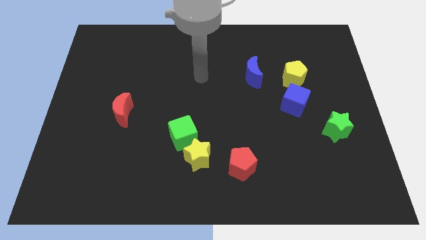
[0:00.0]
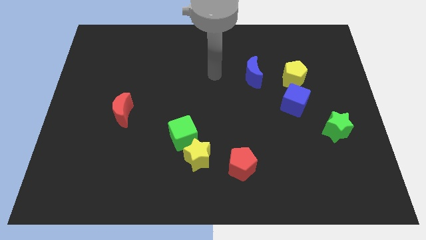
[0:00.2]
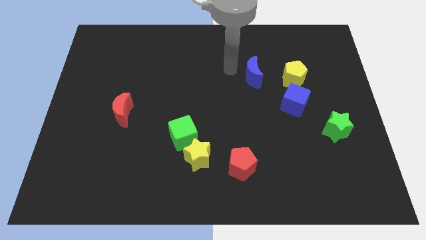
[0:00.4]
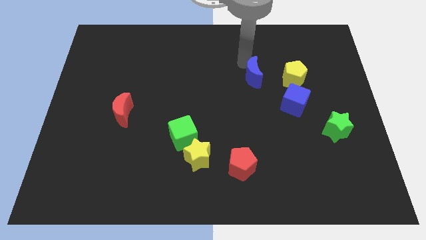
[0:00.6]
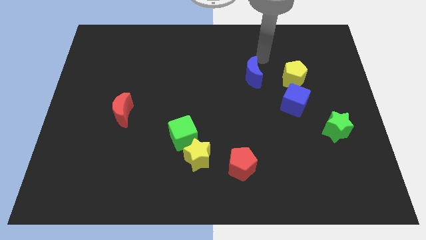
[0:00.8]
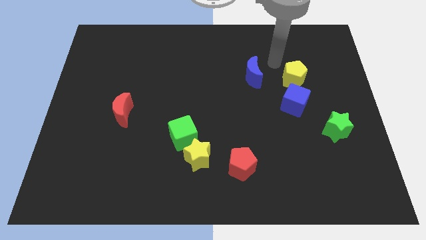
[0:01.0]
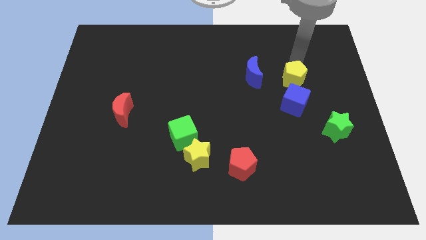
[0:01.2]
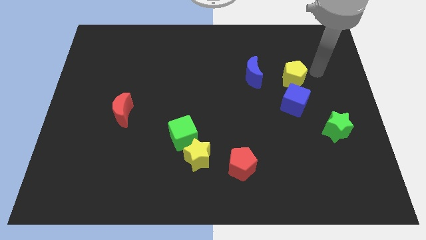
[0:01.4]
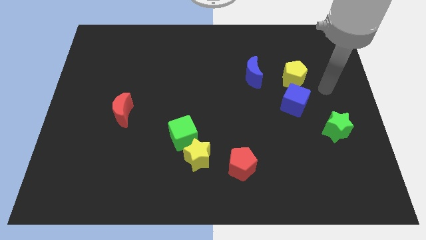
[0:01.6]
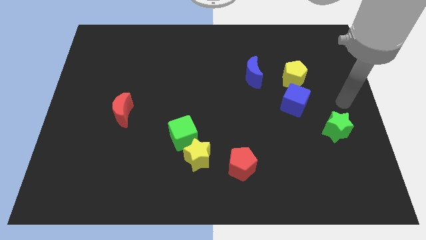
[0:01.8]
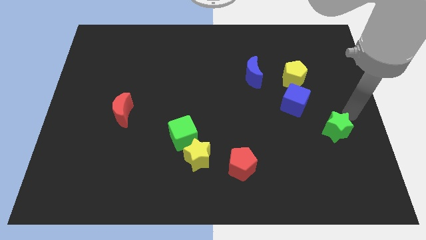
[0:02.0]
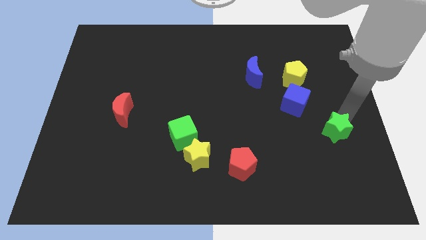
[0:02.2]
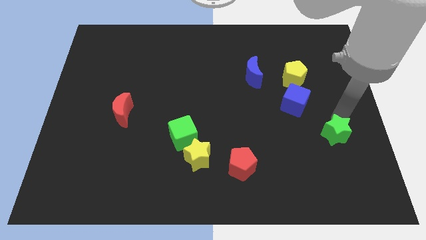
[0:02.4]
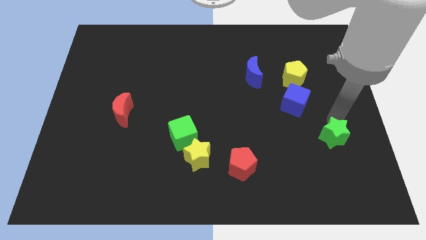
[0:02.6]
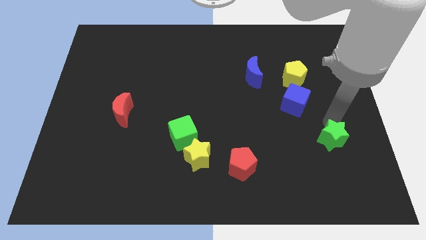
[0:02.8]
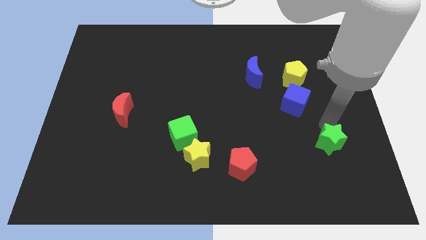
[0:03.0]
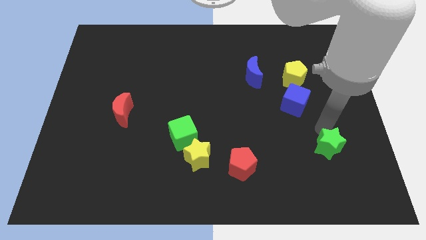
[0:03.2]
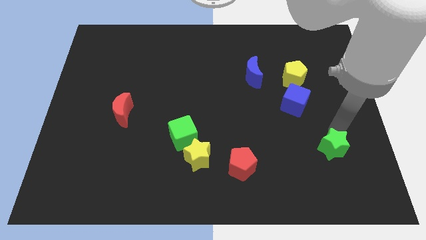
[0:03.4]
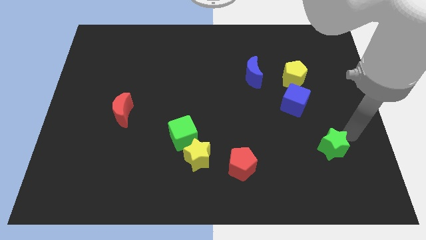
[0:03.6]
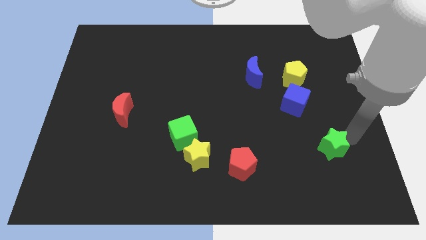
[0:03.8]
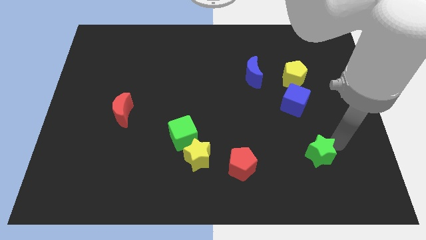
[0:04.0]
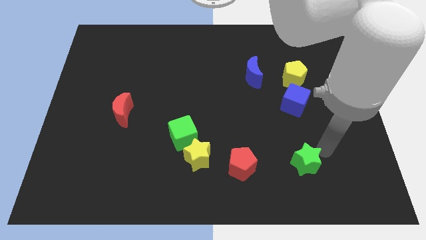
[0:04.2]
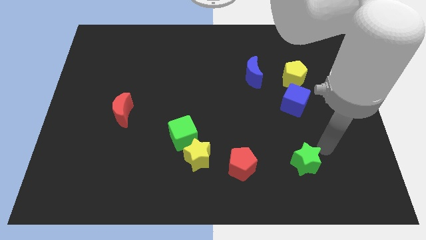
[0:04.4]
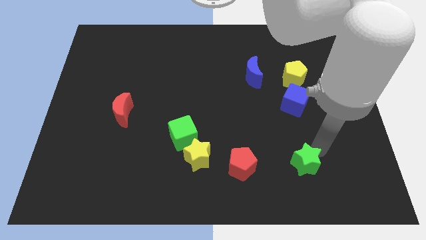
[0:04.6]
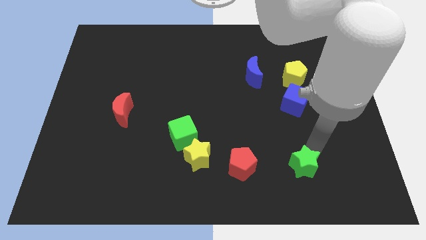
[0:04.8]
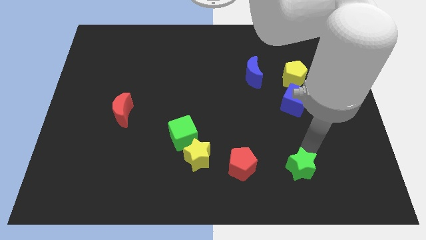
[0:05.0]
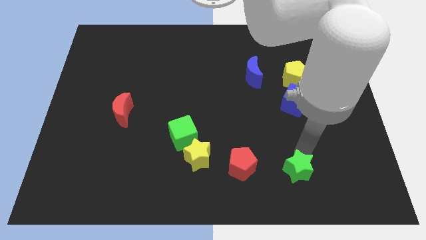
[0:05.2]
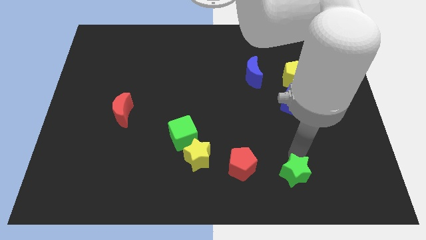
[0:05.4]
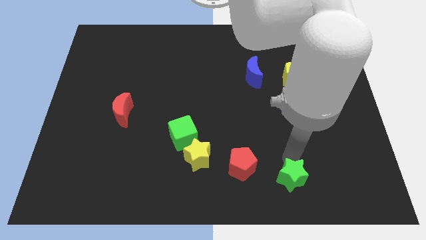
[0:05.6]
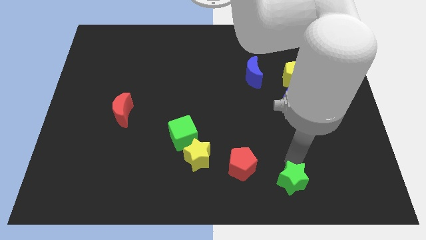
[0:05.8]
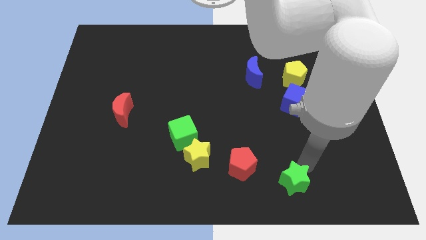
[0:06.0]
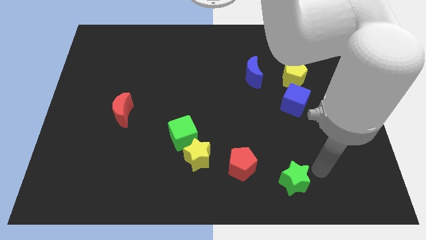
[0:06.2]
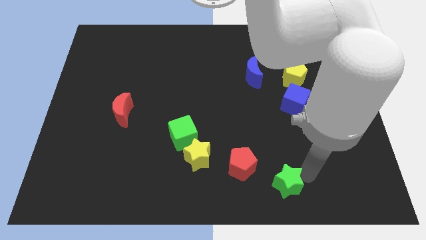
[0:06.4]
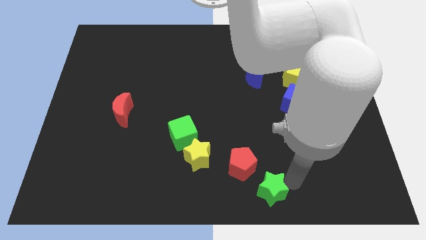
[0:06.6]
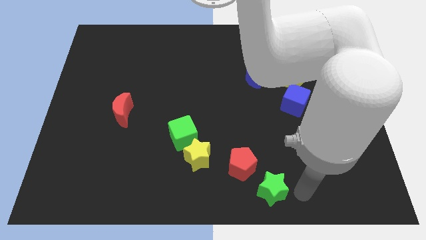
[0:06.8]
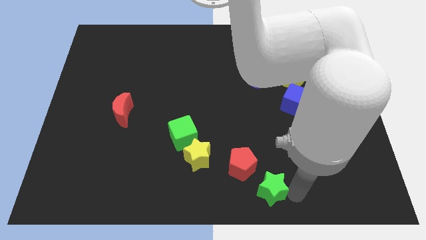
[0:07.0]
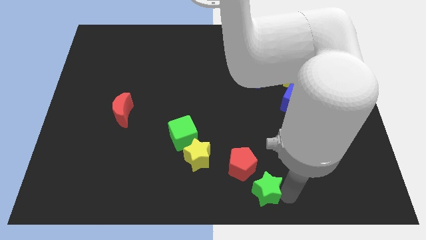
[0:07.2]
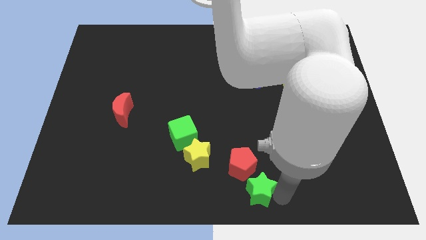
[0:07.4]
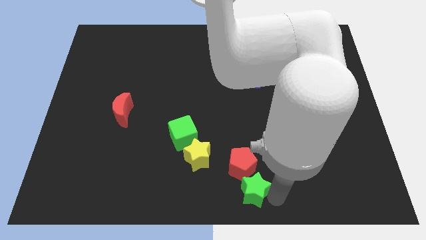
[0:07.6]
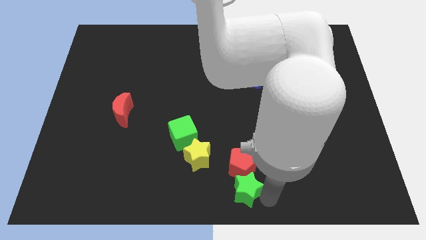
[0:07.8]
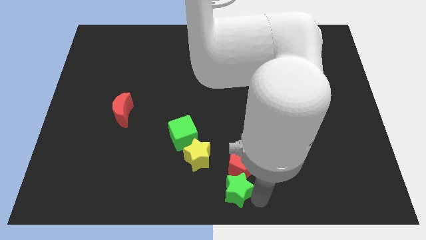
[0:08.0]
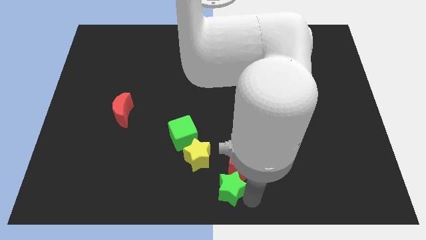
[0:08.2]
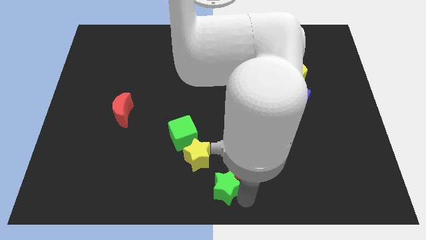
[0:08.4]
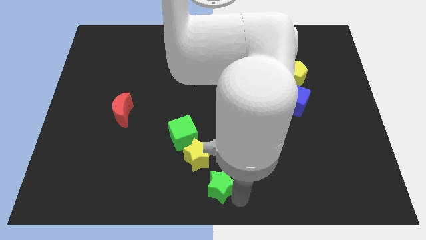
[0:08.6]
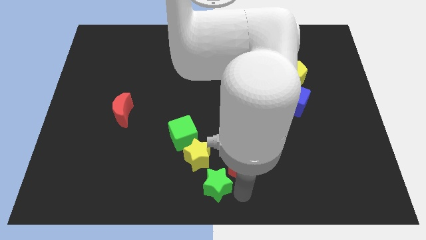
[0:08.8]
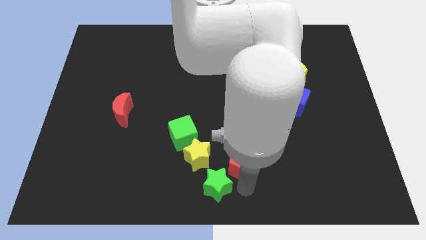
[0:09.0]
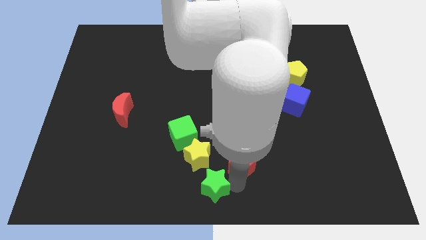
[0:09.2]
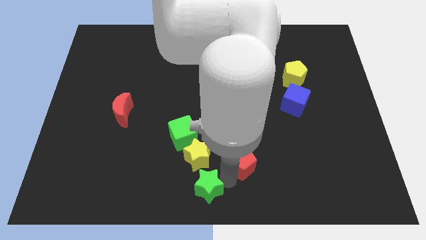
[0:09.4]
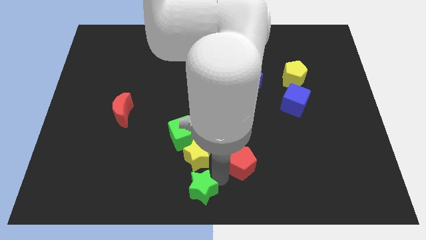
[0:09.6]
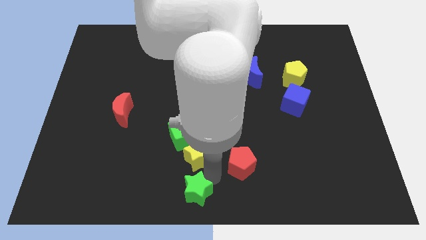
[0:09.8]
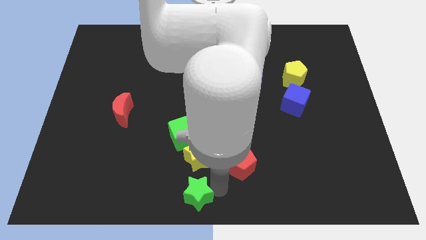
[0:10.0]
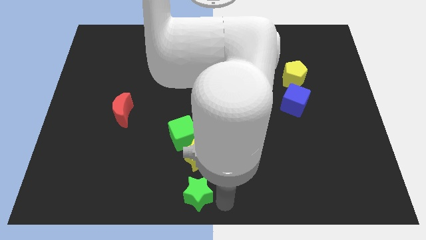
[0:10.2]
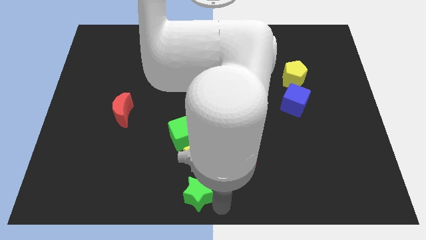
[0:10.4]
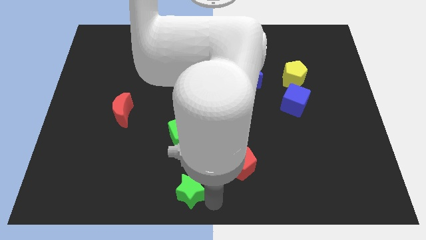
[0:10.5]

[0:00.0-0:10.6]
push the green star to the bottom left of the yellow star

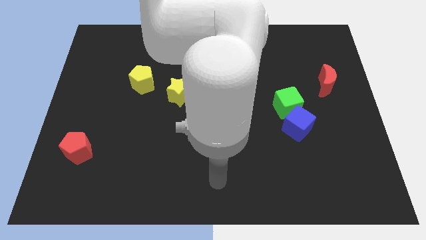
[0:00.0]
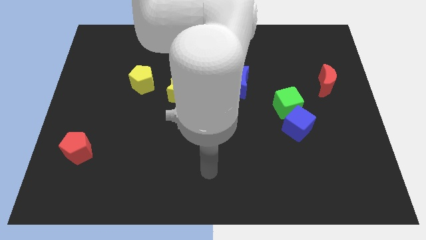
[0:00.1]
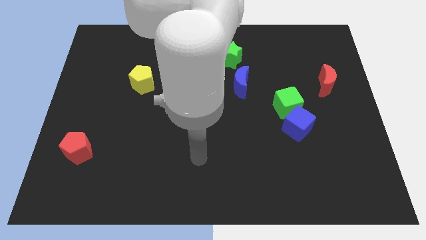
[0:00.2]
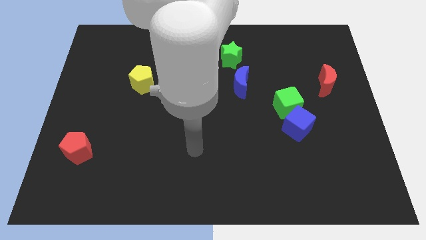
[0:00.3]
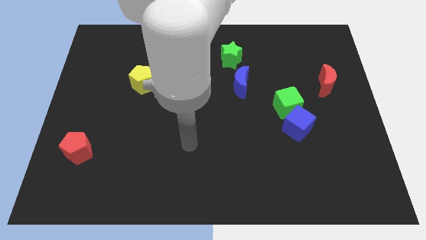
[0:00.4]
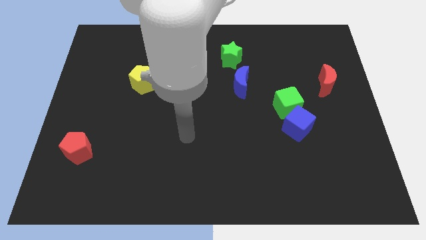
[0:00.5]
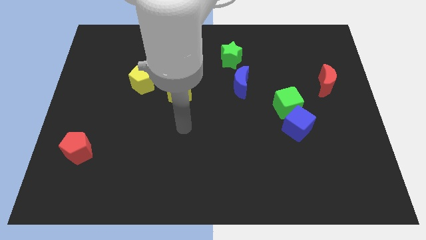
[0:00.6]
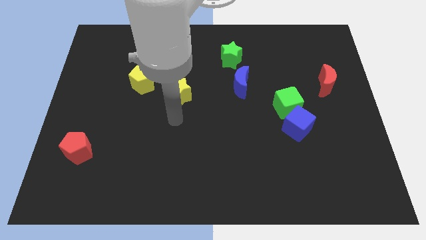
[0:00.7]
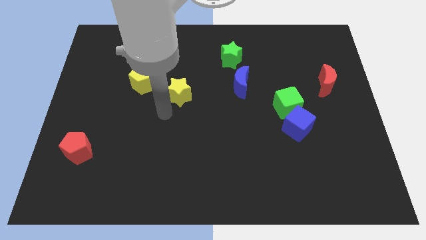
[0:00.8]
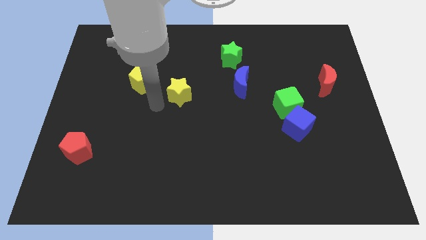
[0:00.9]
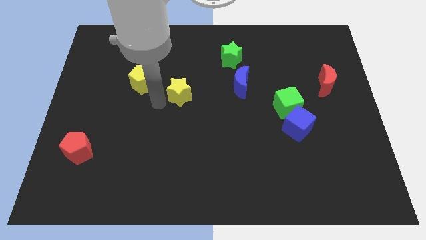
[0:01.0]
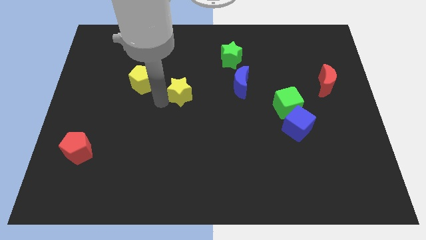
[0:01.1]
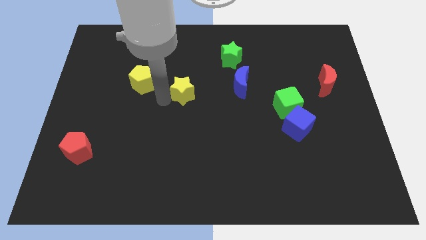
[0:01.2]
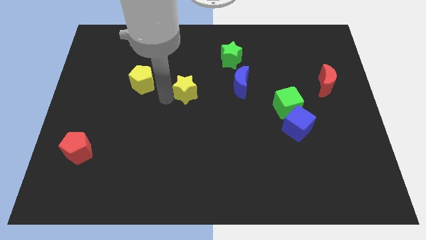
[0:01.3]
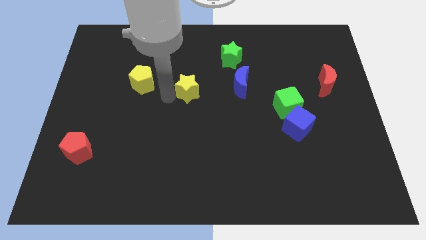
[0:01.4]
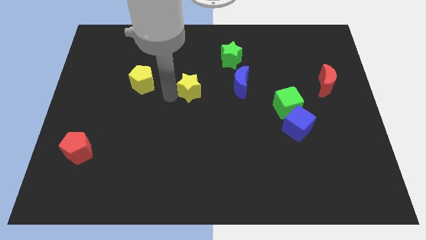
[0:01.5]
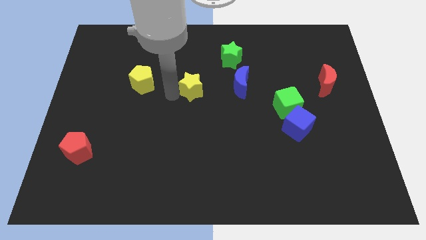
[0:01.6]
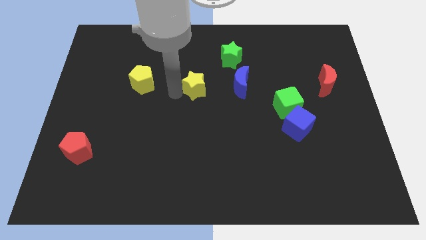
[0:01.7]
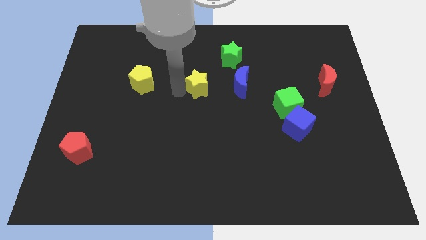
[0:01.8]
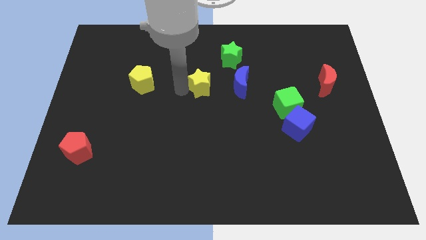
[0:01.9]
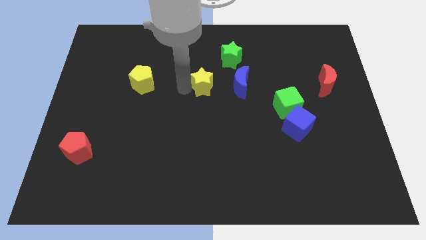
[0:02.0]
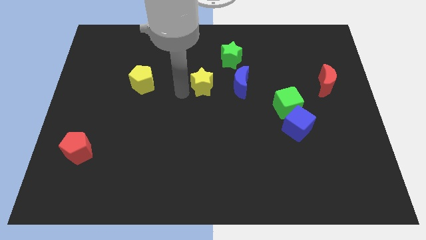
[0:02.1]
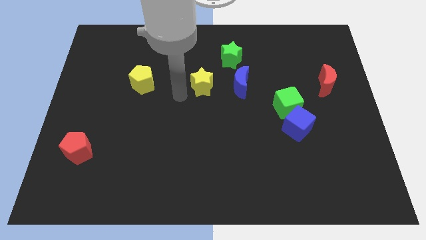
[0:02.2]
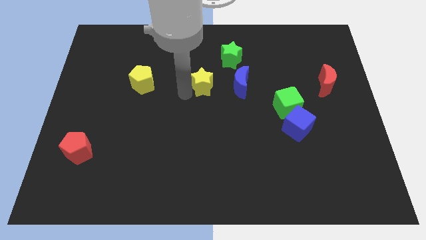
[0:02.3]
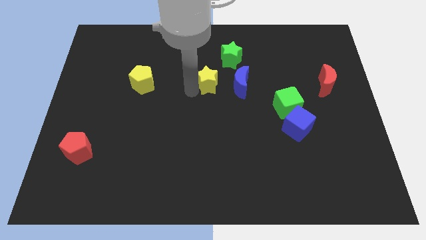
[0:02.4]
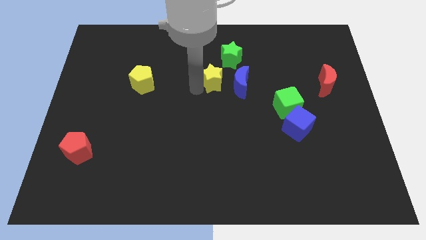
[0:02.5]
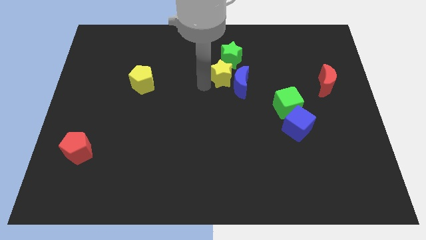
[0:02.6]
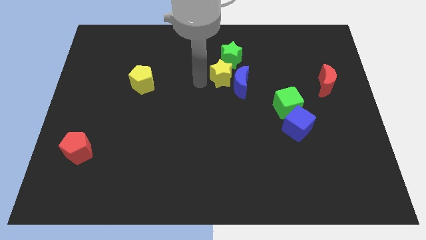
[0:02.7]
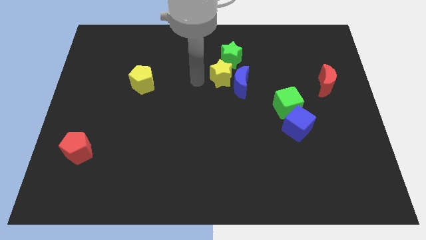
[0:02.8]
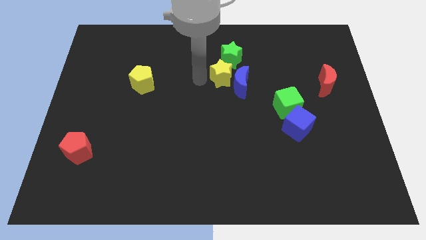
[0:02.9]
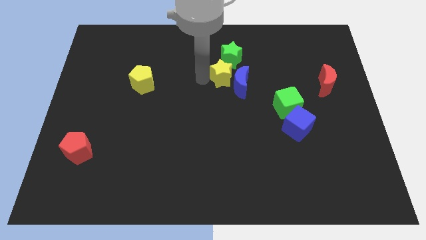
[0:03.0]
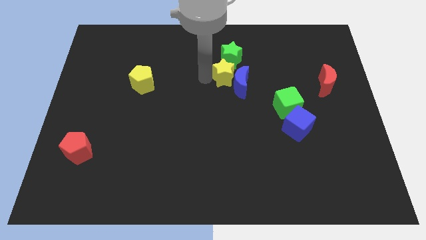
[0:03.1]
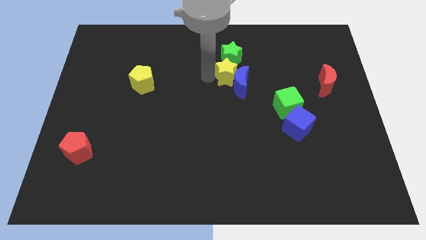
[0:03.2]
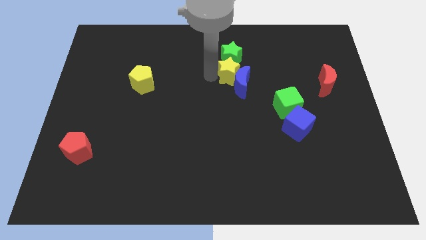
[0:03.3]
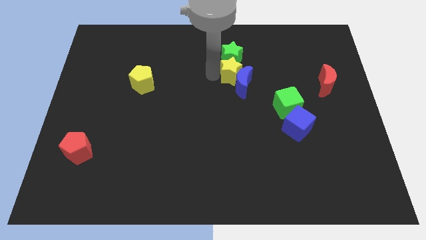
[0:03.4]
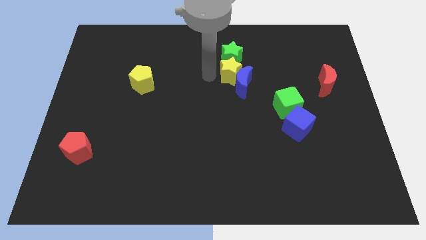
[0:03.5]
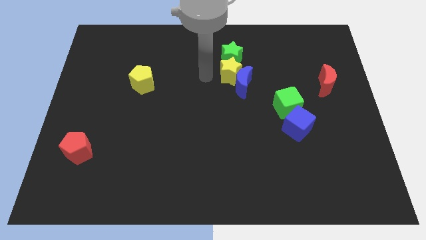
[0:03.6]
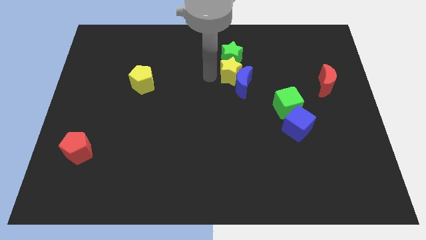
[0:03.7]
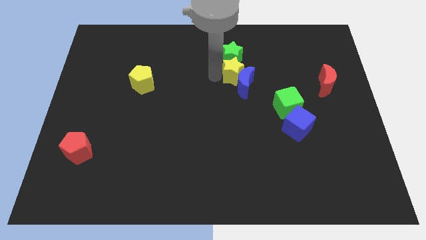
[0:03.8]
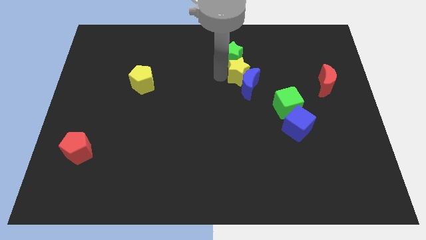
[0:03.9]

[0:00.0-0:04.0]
slide the yellow star diagonally up and to the right of the blue moon
